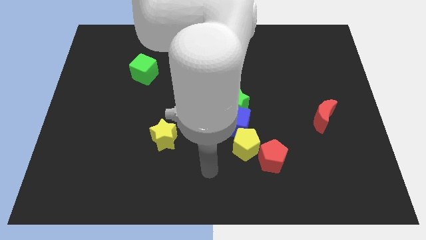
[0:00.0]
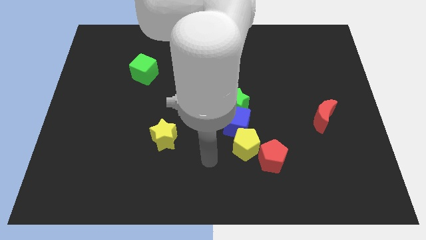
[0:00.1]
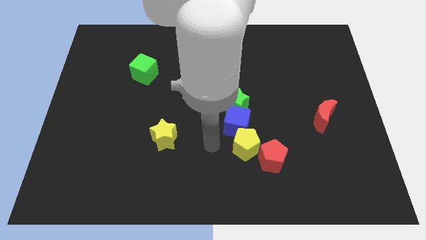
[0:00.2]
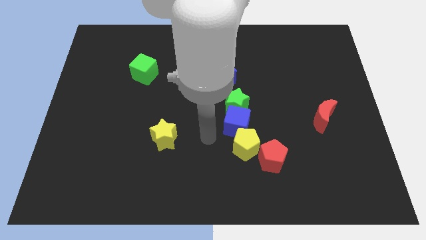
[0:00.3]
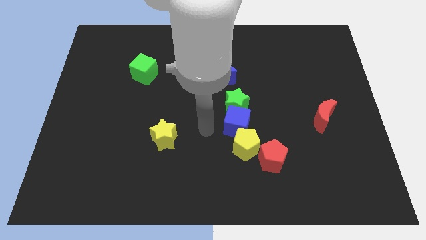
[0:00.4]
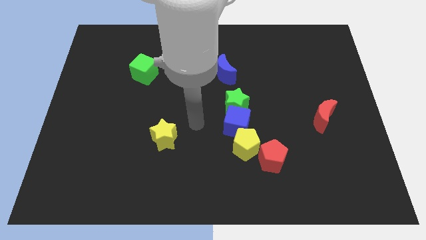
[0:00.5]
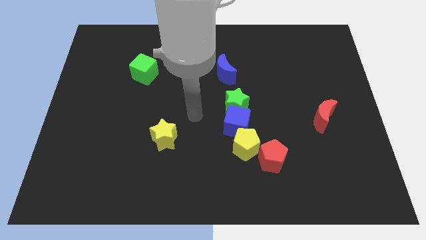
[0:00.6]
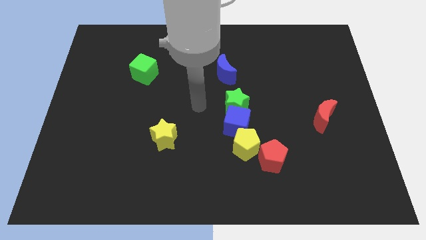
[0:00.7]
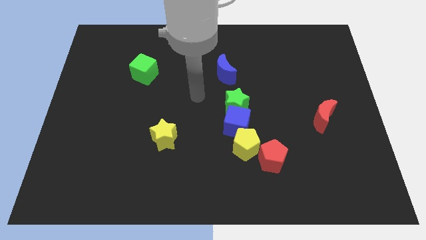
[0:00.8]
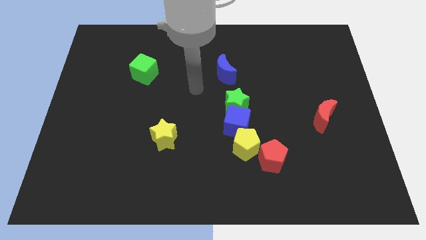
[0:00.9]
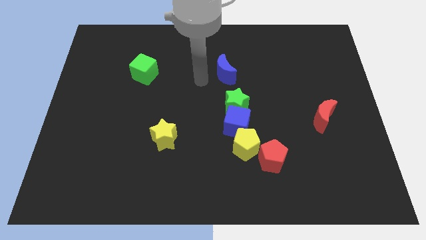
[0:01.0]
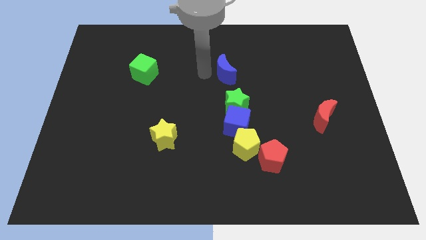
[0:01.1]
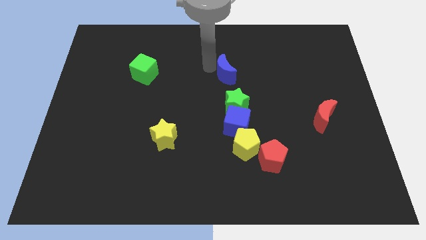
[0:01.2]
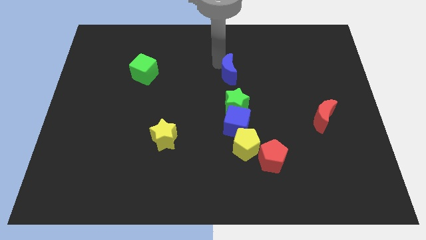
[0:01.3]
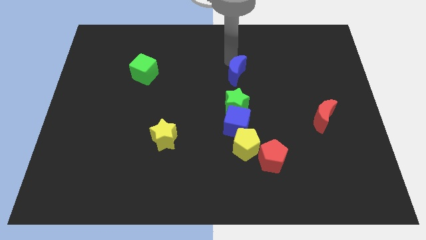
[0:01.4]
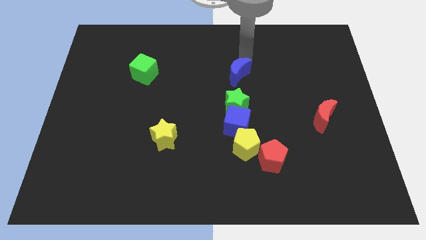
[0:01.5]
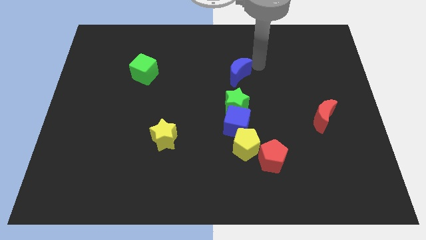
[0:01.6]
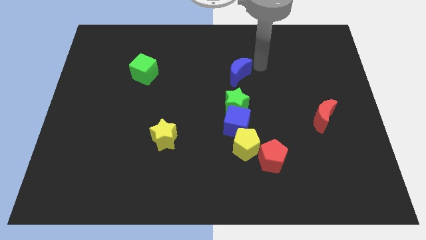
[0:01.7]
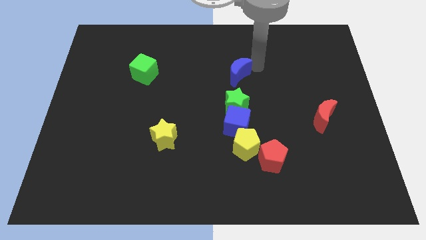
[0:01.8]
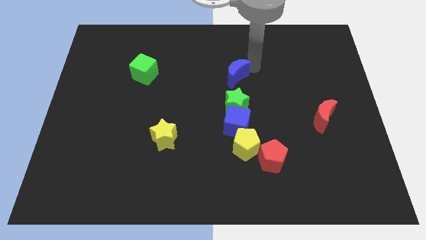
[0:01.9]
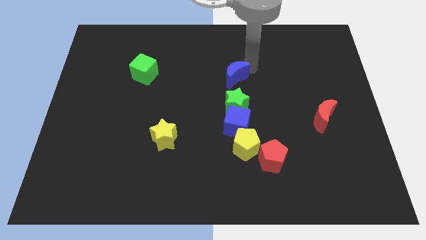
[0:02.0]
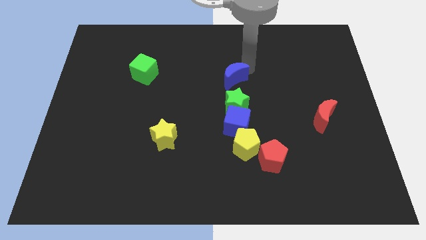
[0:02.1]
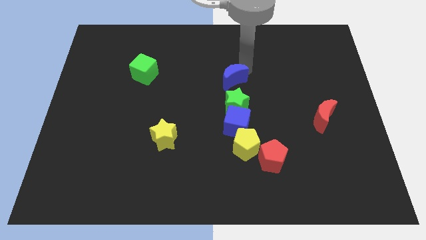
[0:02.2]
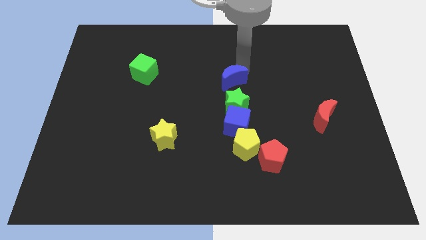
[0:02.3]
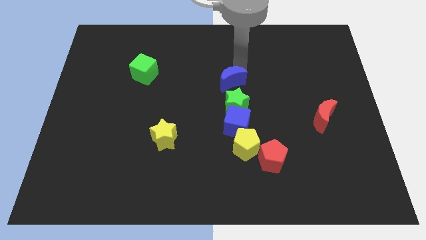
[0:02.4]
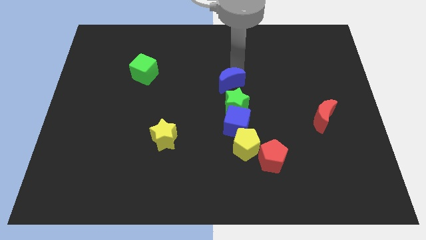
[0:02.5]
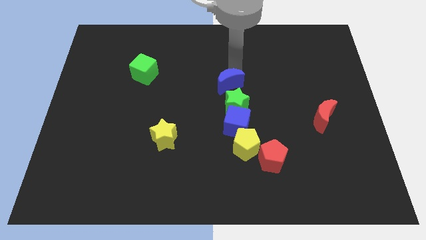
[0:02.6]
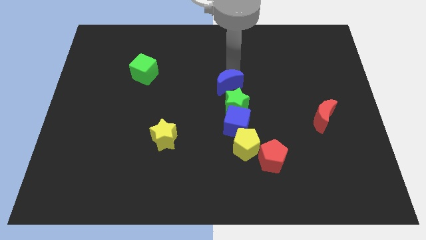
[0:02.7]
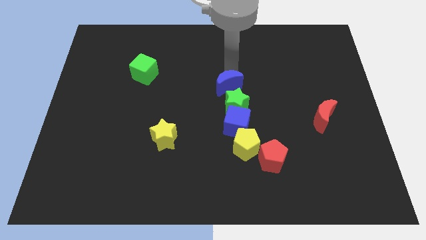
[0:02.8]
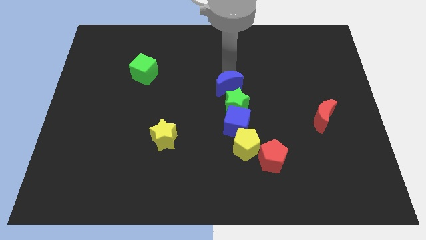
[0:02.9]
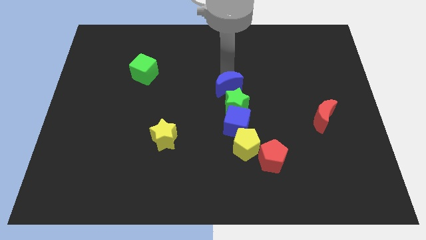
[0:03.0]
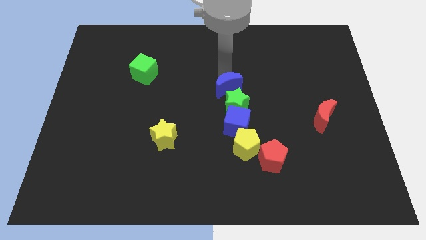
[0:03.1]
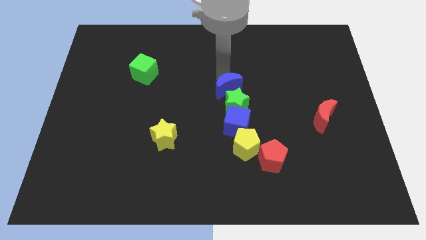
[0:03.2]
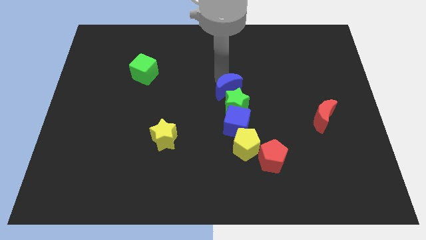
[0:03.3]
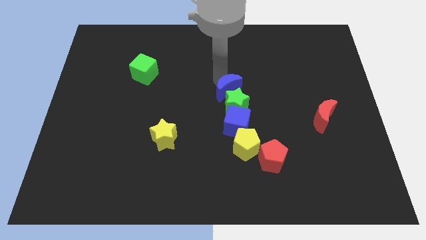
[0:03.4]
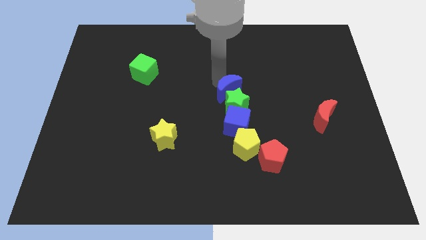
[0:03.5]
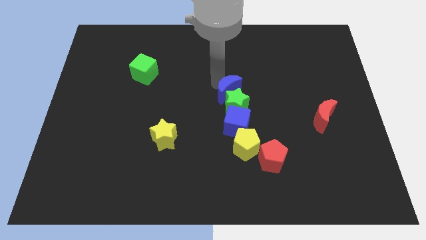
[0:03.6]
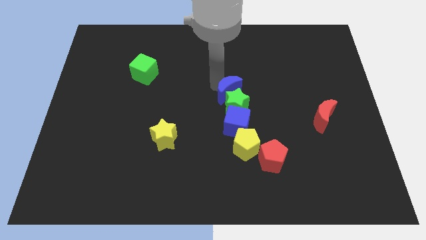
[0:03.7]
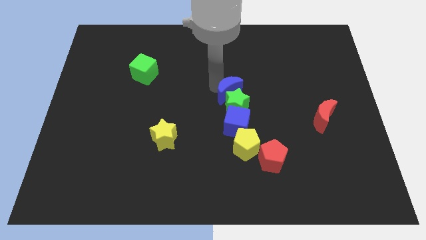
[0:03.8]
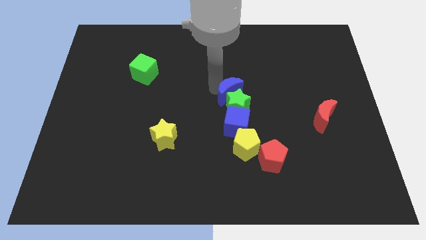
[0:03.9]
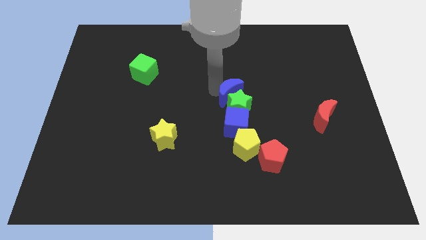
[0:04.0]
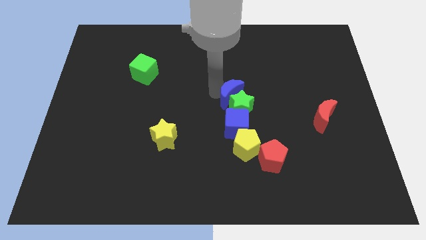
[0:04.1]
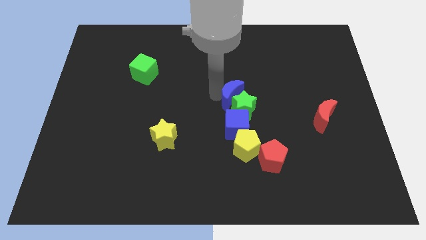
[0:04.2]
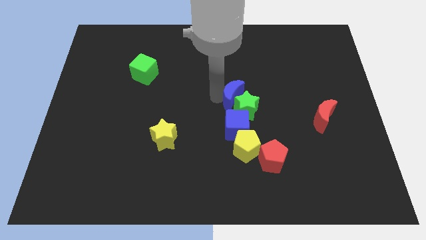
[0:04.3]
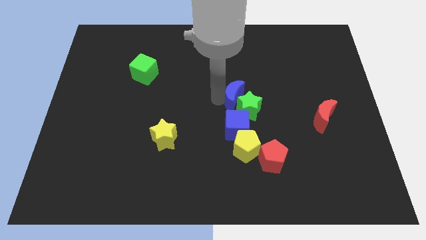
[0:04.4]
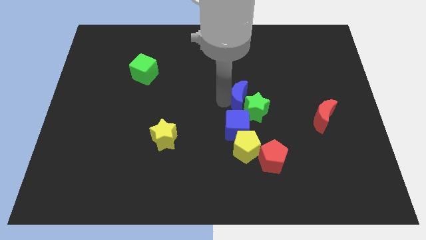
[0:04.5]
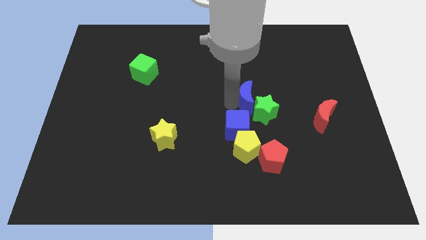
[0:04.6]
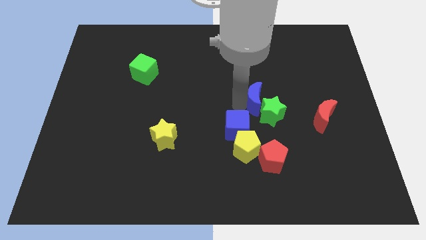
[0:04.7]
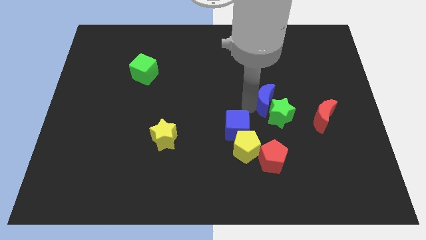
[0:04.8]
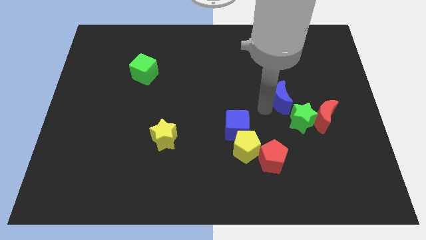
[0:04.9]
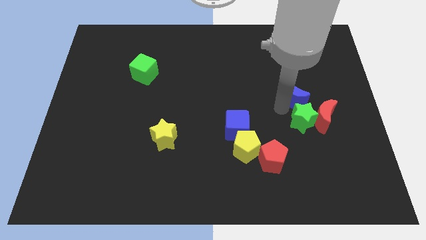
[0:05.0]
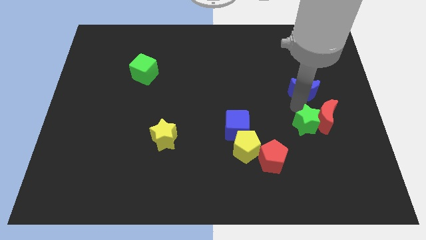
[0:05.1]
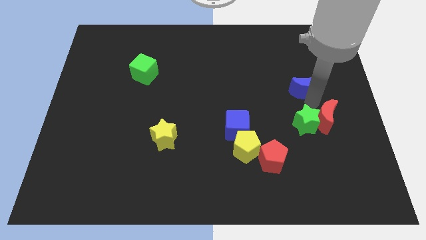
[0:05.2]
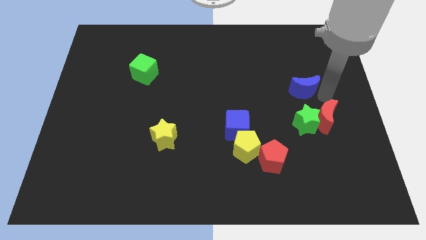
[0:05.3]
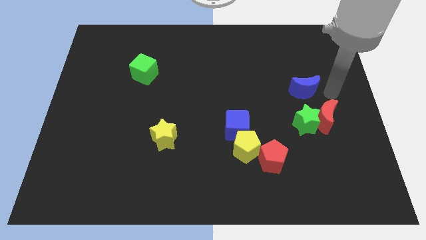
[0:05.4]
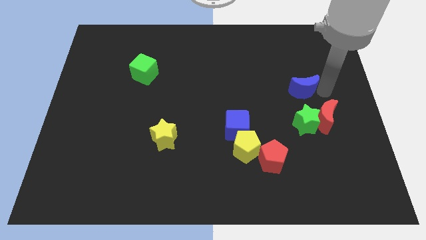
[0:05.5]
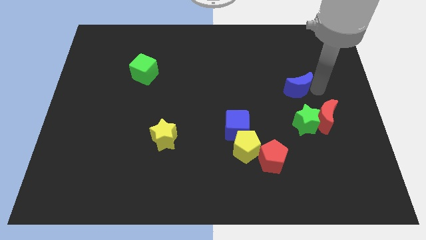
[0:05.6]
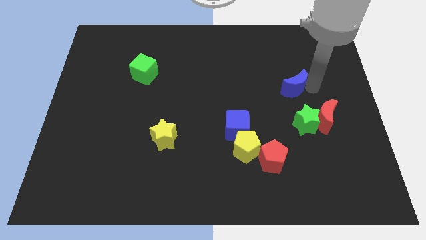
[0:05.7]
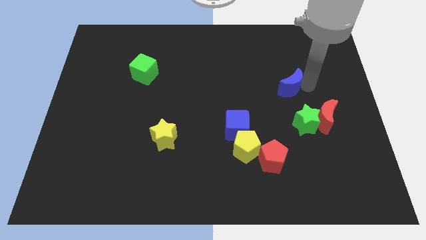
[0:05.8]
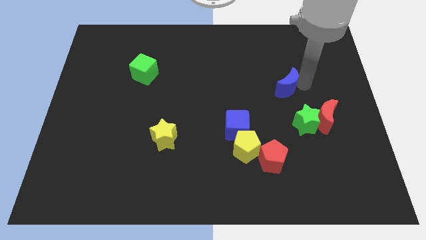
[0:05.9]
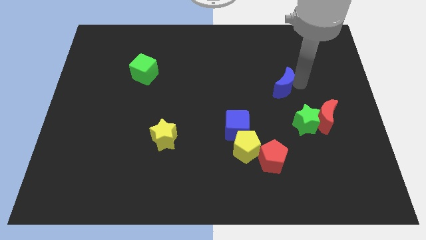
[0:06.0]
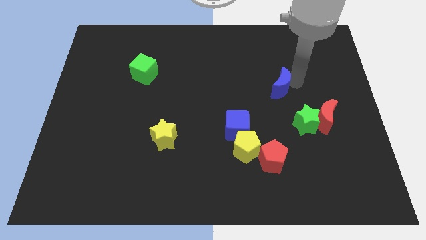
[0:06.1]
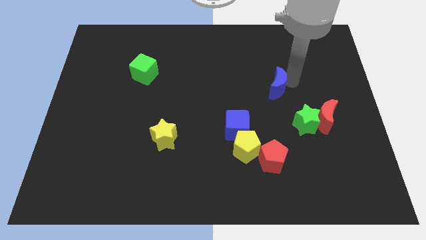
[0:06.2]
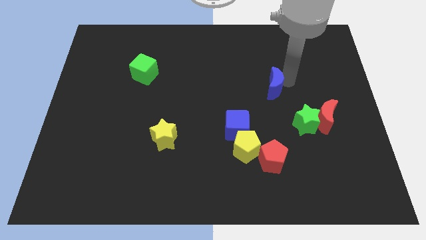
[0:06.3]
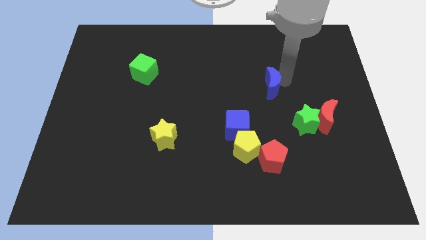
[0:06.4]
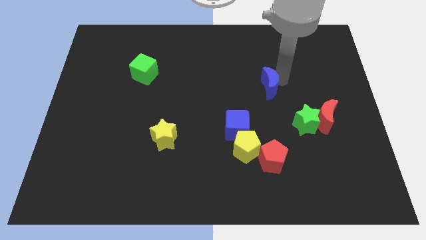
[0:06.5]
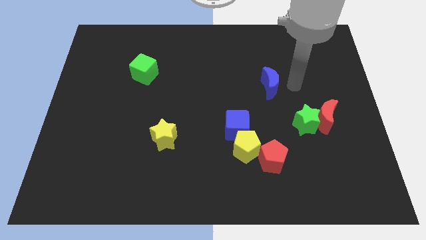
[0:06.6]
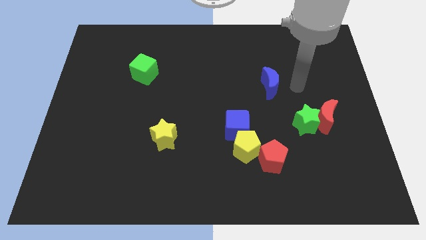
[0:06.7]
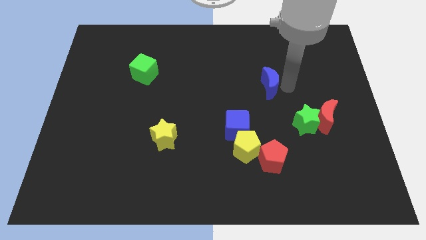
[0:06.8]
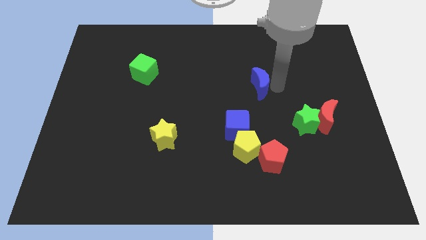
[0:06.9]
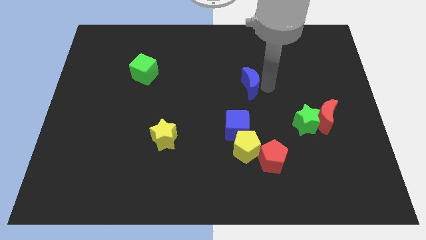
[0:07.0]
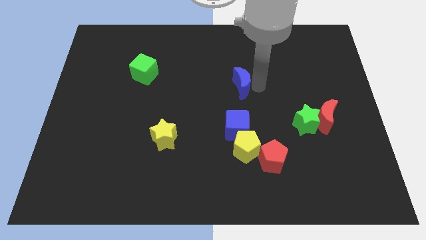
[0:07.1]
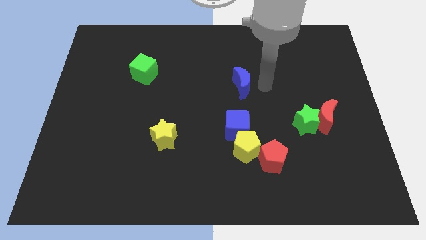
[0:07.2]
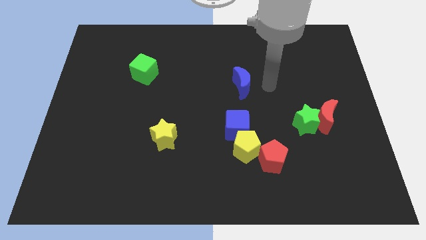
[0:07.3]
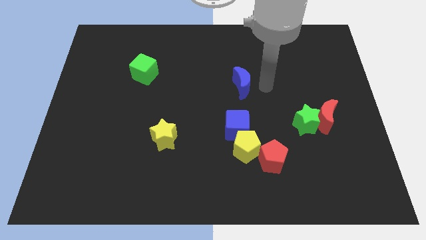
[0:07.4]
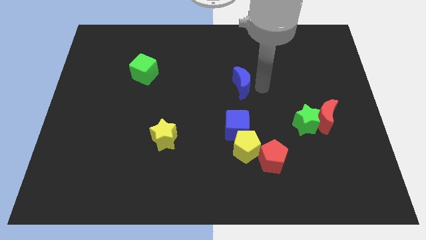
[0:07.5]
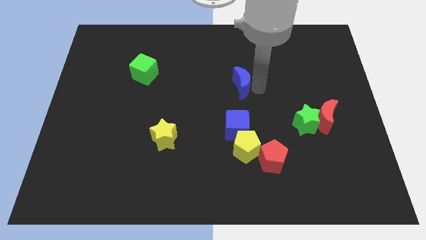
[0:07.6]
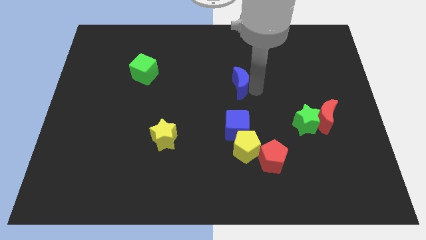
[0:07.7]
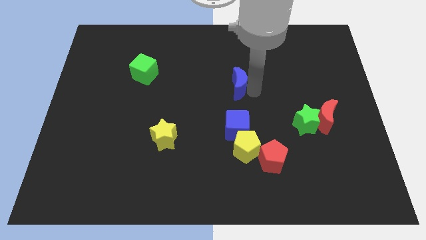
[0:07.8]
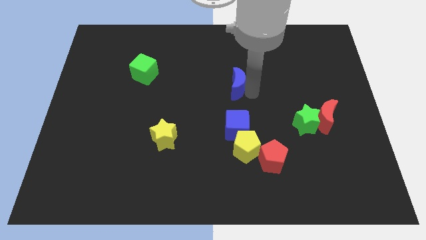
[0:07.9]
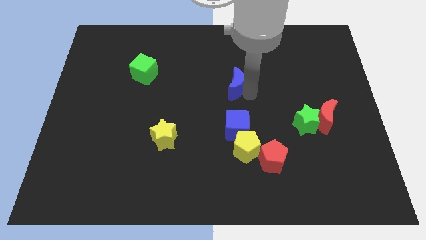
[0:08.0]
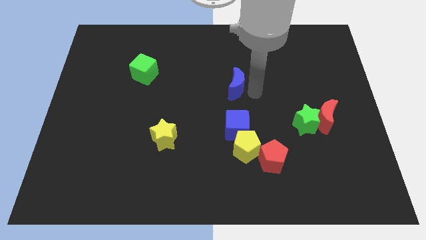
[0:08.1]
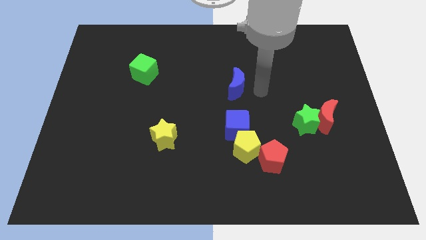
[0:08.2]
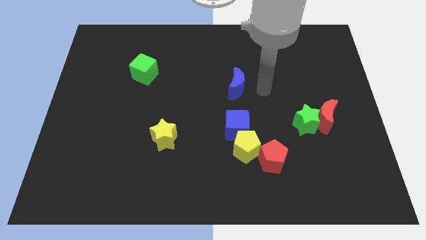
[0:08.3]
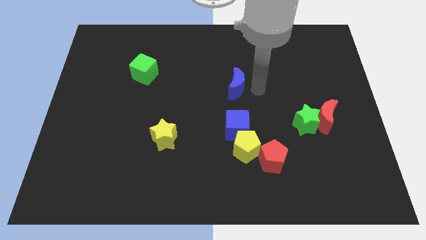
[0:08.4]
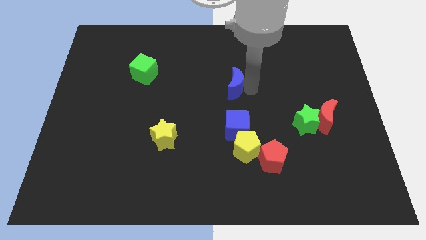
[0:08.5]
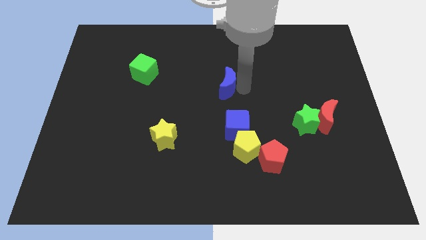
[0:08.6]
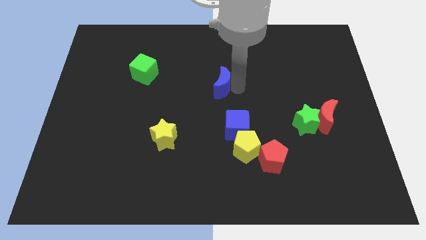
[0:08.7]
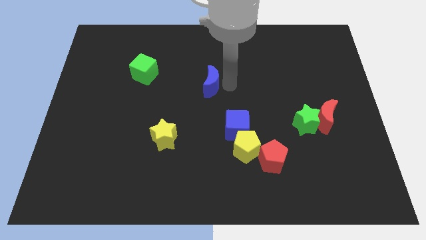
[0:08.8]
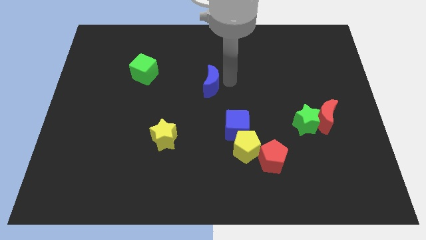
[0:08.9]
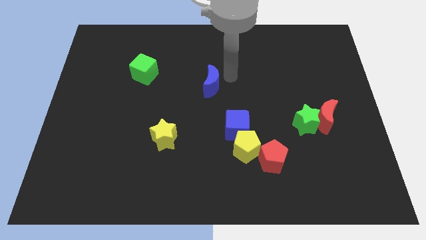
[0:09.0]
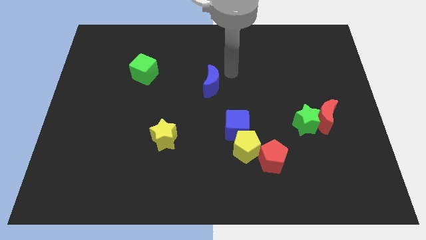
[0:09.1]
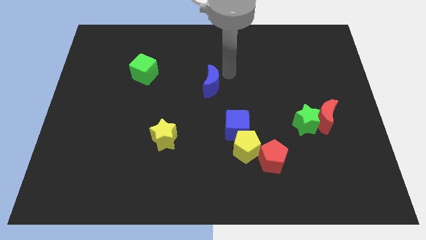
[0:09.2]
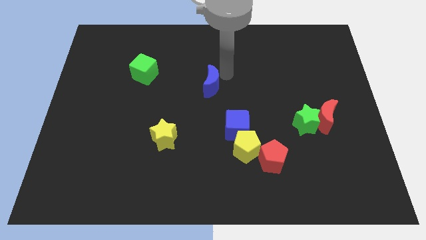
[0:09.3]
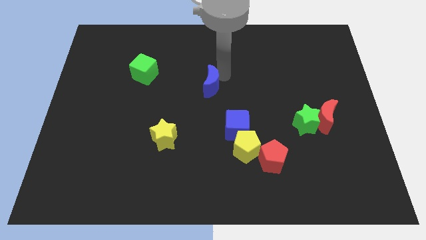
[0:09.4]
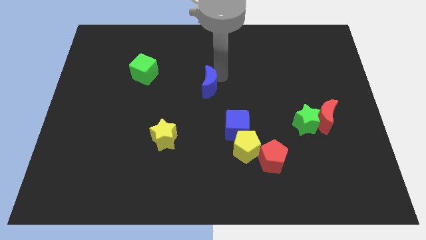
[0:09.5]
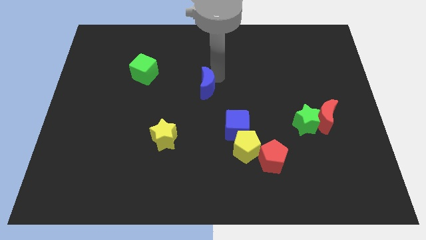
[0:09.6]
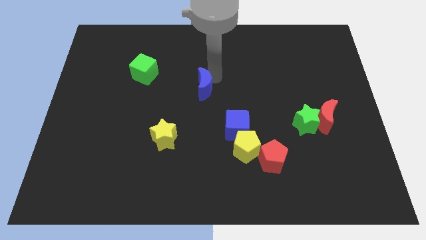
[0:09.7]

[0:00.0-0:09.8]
slide the blue moon a little bit down and left
